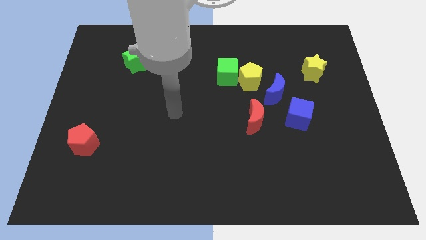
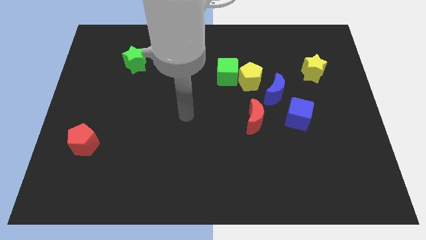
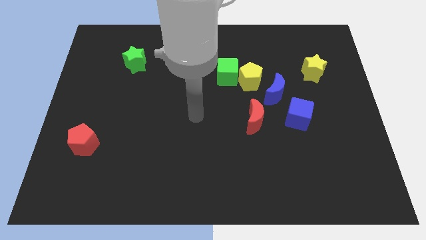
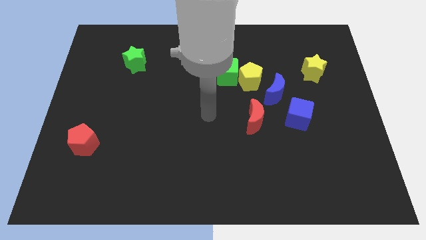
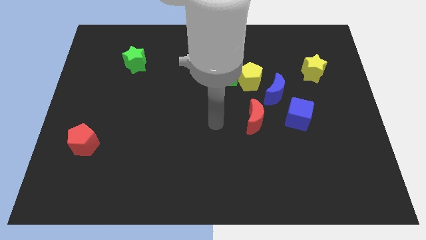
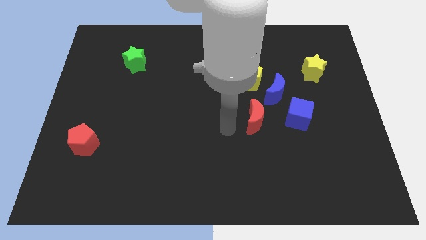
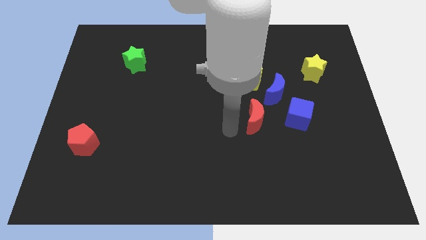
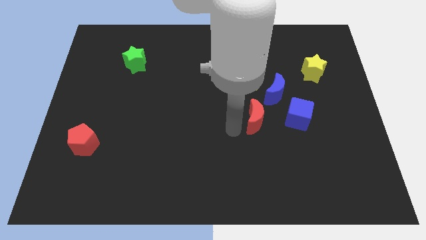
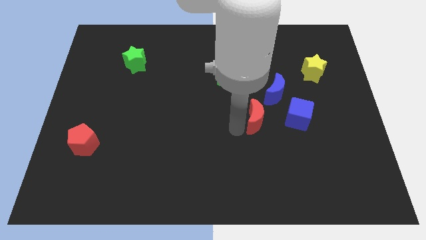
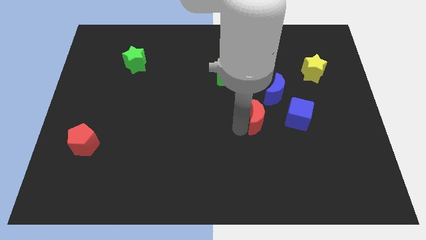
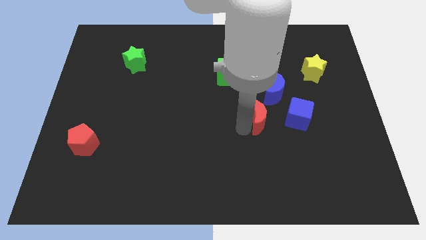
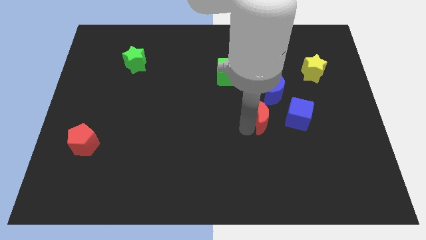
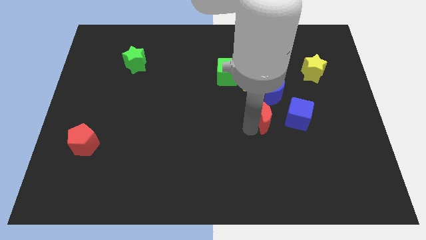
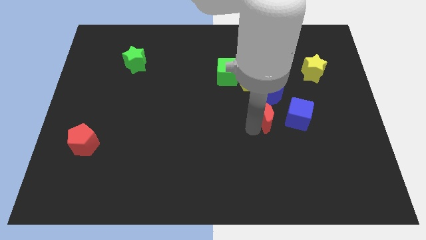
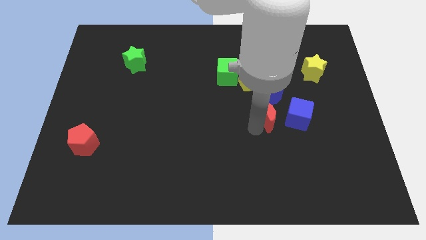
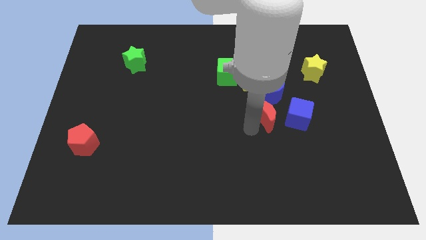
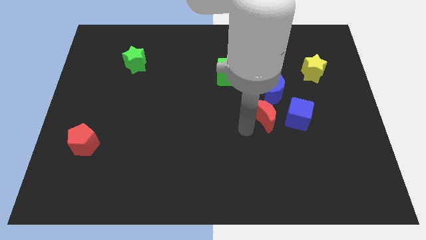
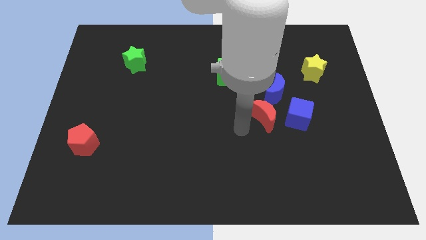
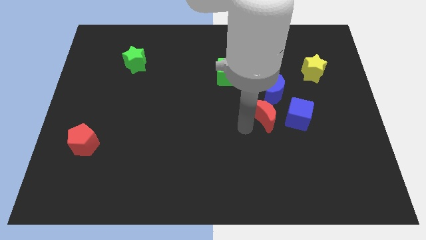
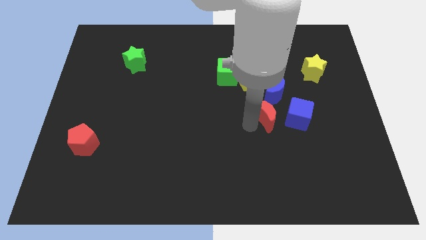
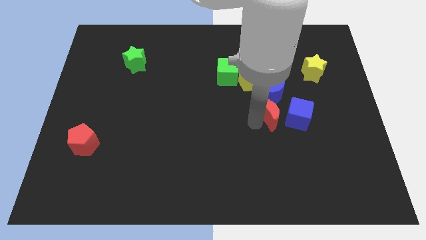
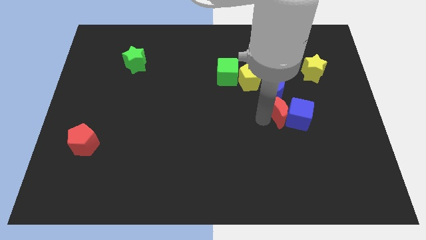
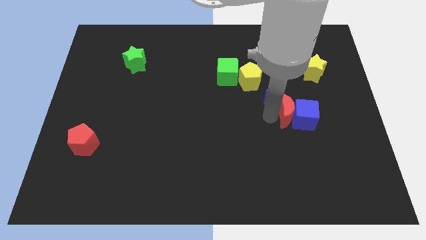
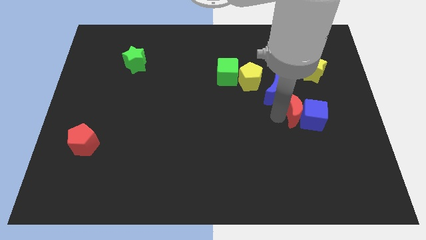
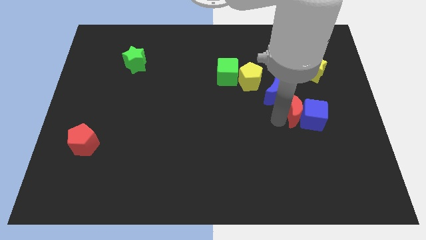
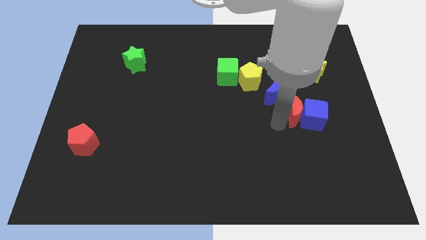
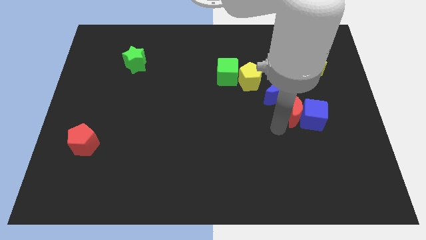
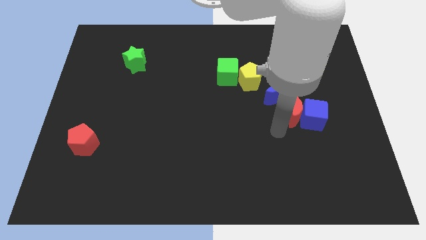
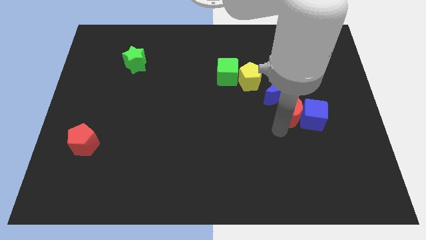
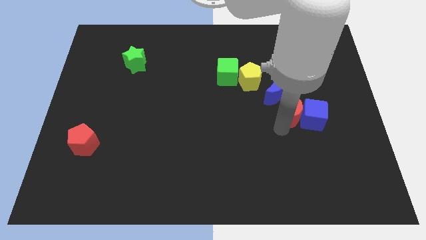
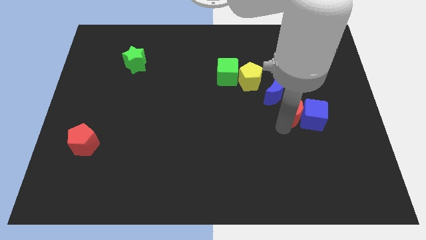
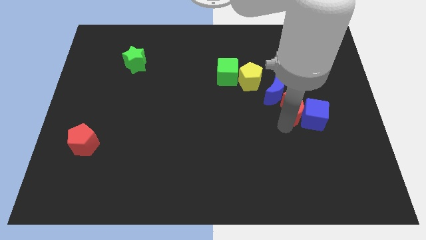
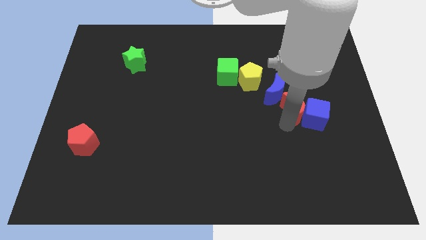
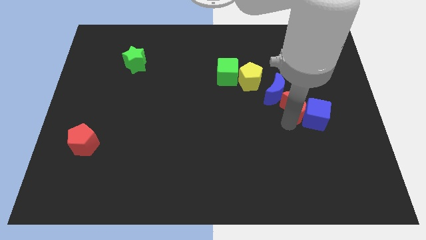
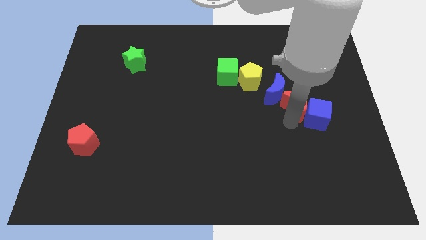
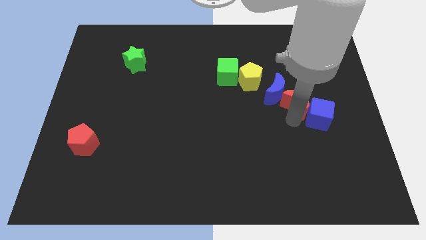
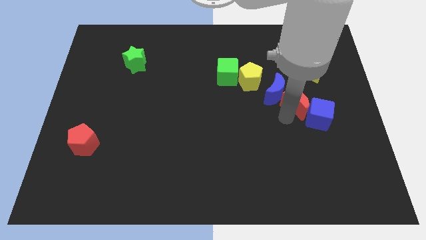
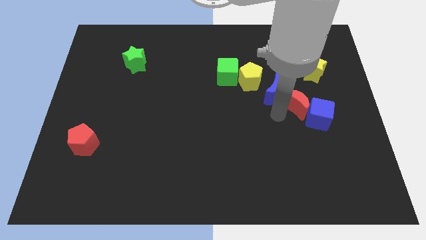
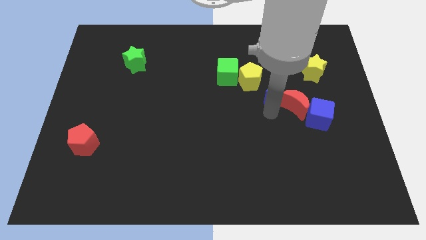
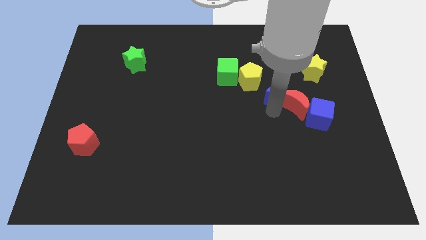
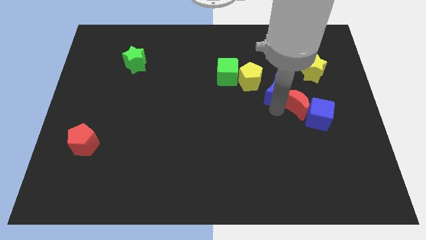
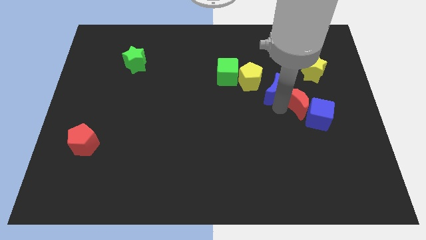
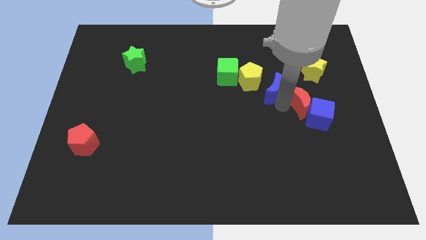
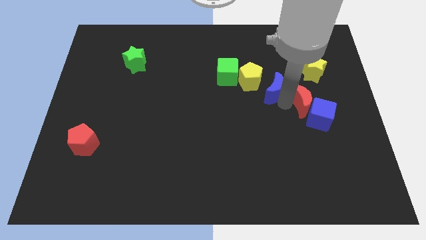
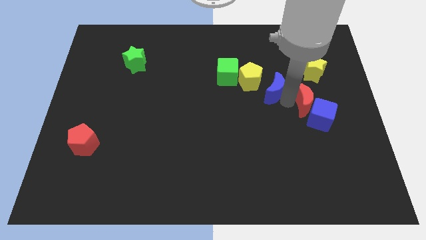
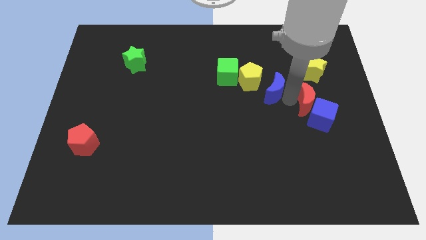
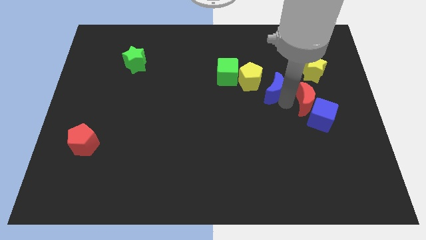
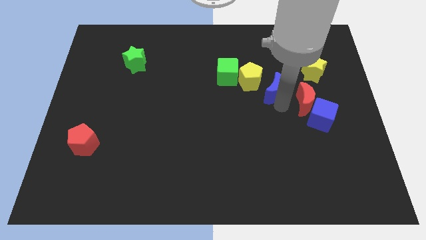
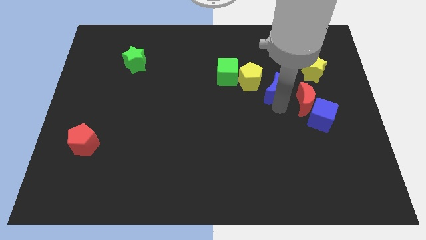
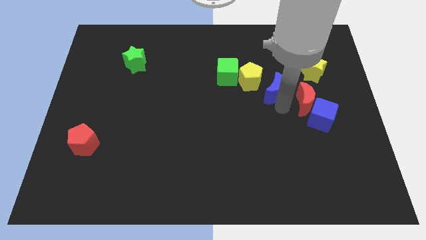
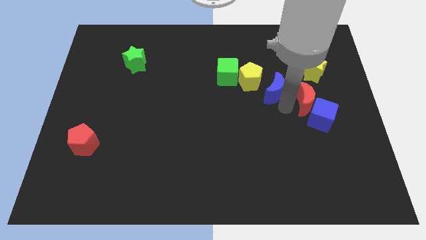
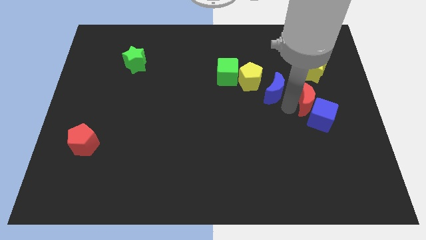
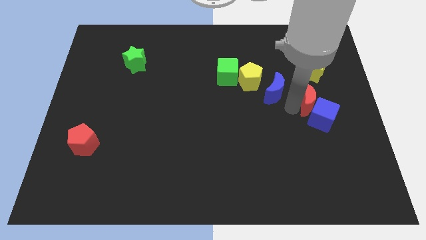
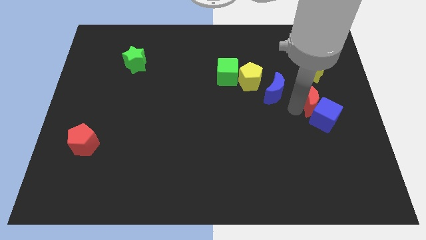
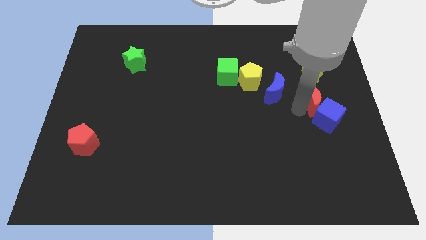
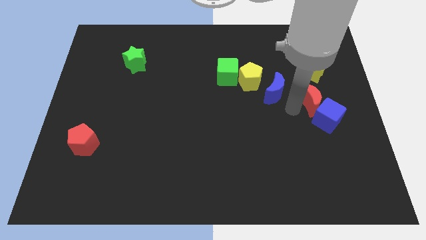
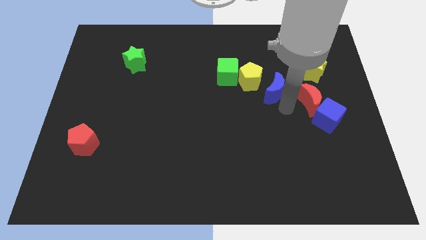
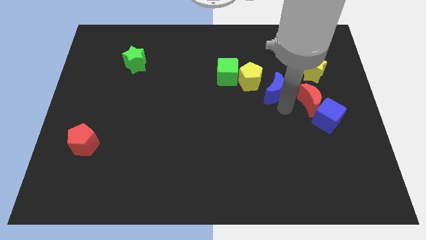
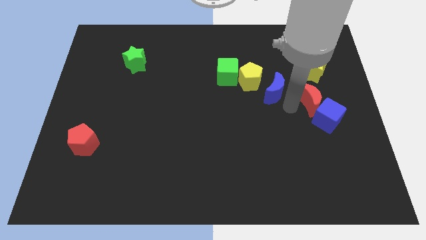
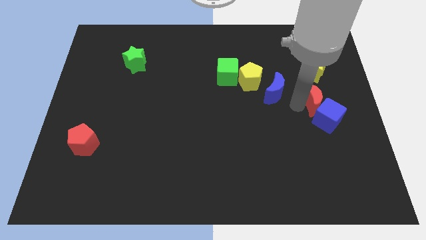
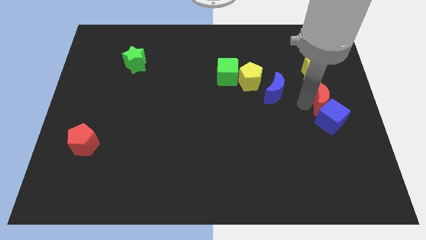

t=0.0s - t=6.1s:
push the red moon to the right side of the board

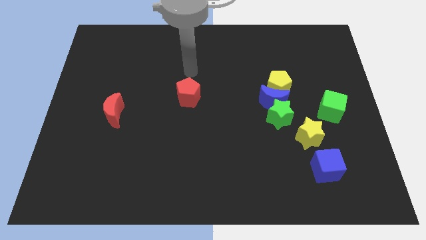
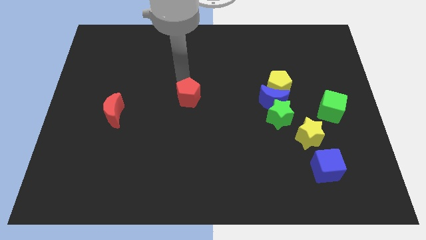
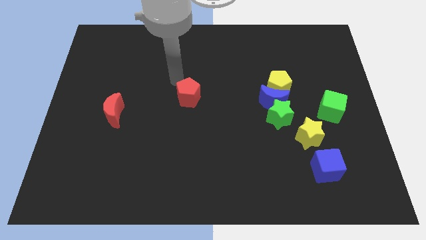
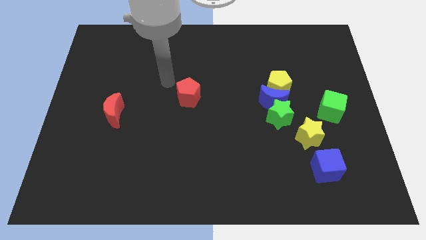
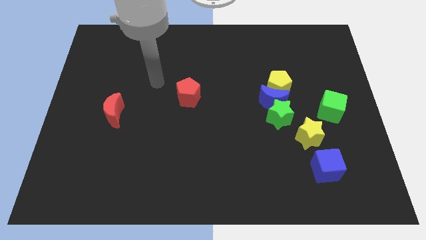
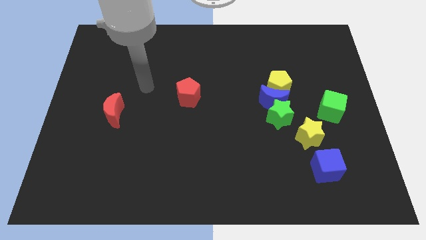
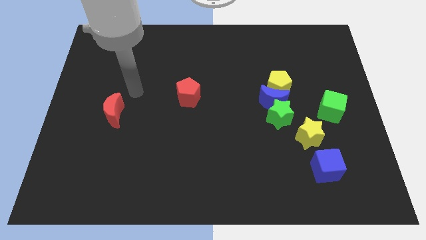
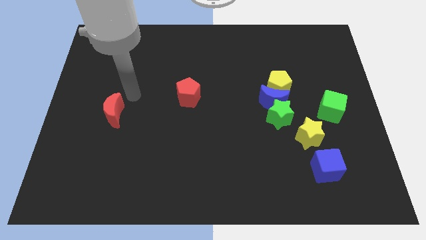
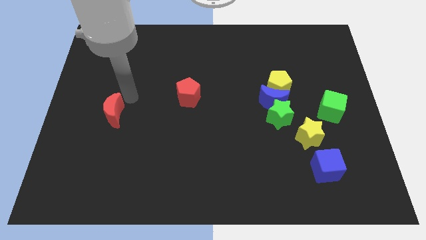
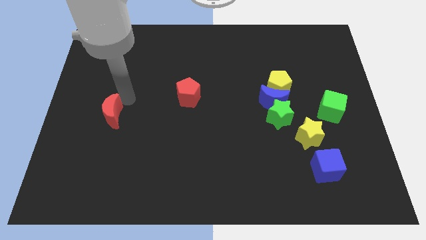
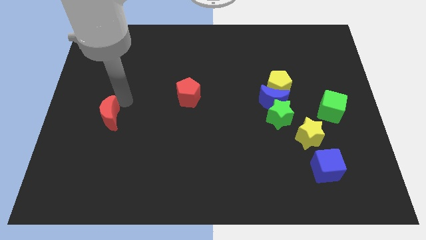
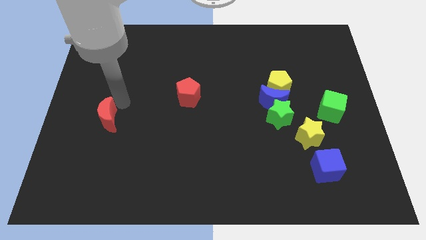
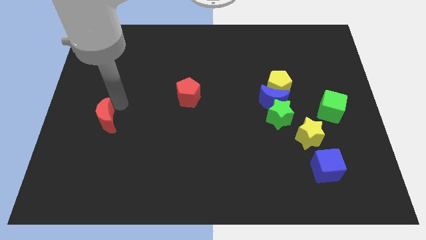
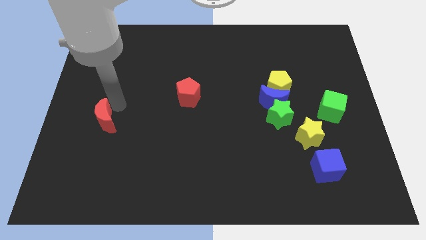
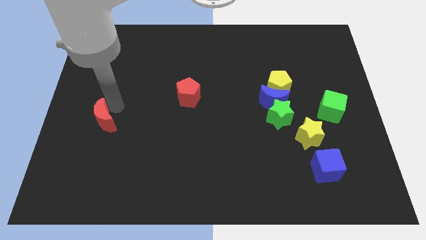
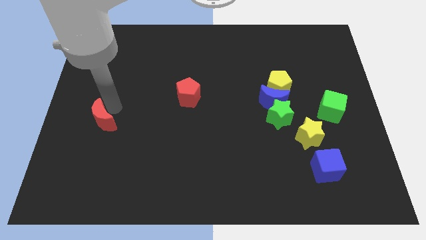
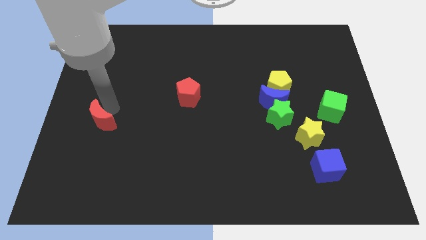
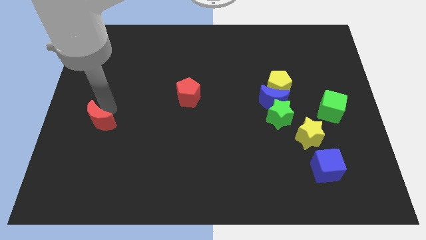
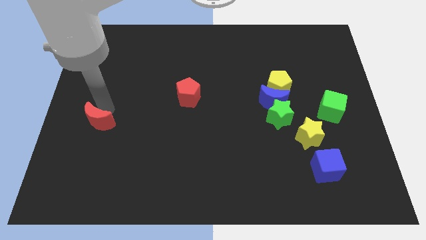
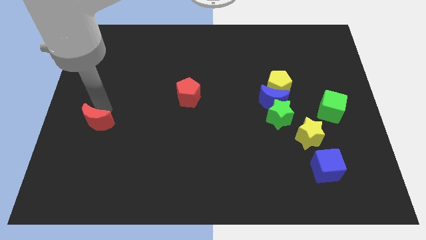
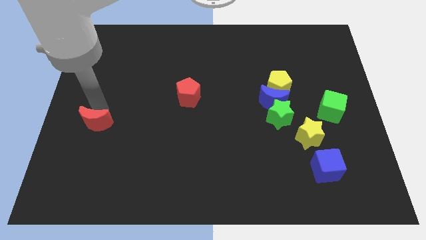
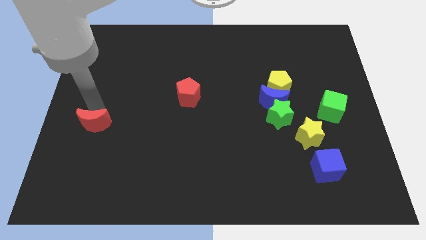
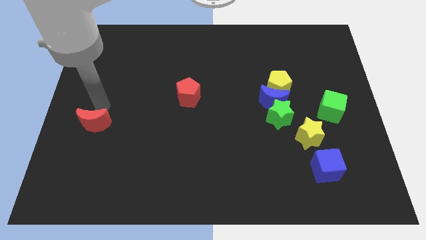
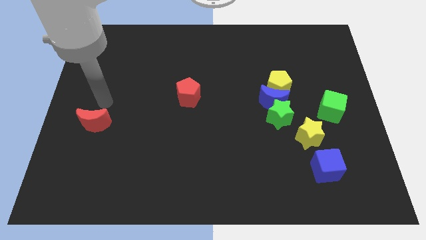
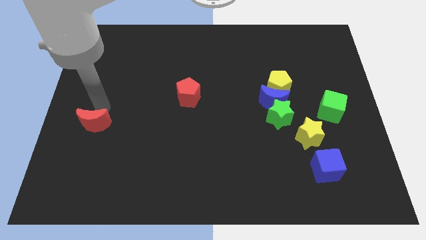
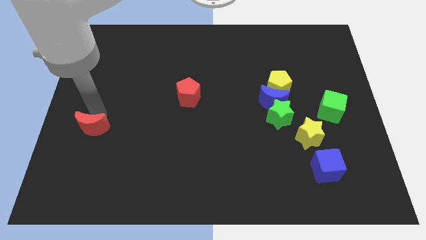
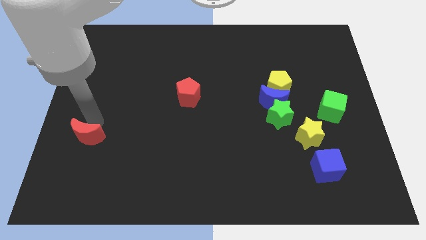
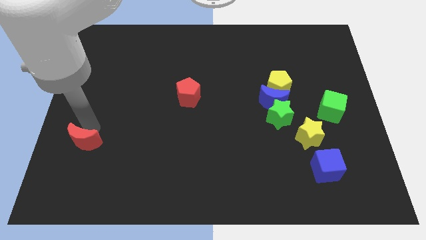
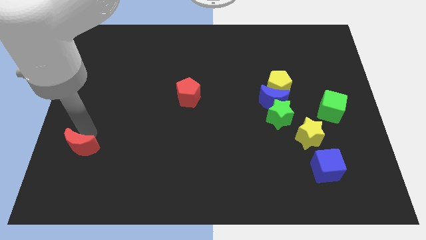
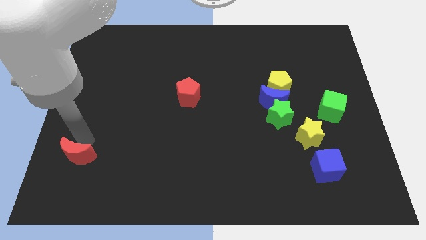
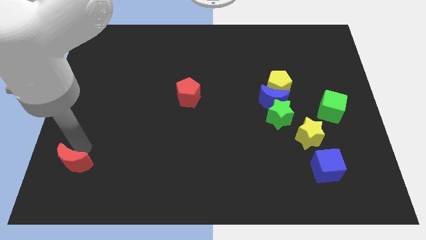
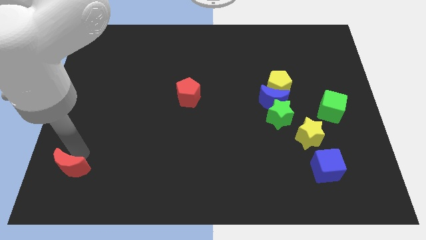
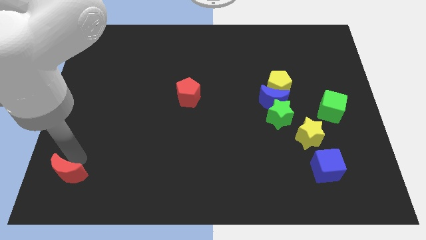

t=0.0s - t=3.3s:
put the red moon to the bottom left of the board
